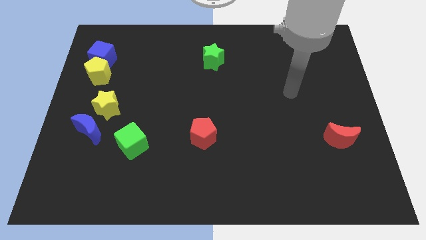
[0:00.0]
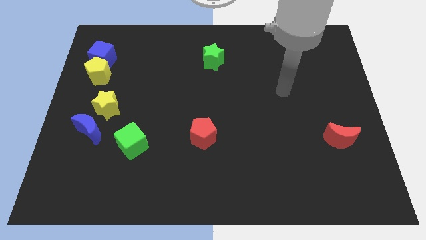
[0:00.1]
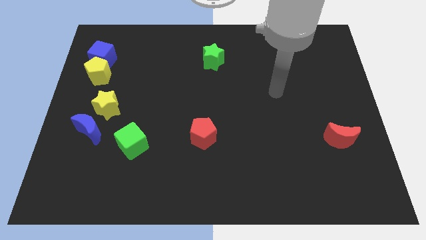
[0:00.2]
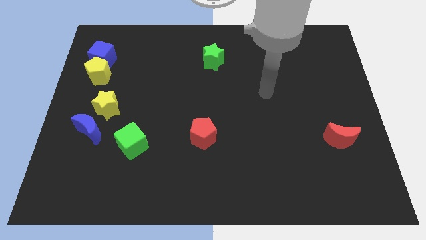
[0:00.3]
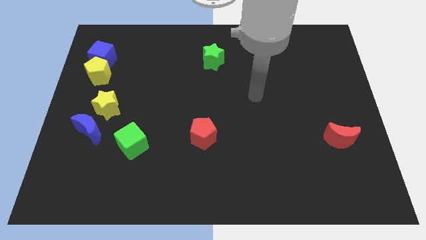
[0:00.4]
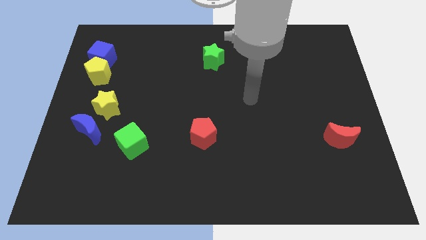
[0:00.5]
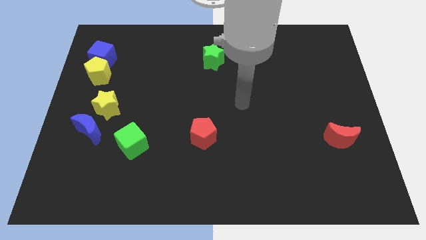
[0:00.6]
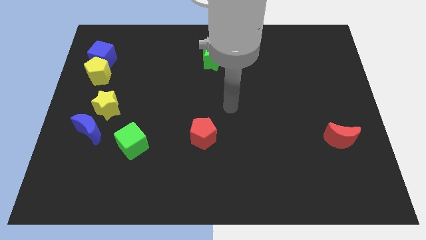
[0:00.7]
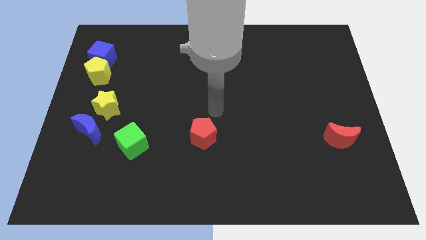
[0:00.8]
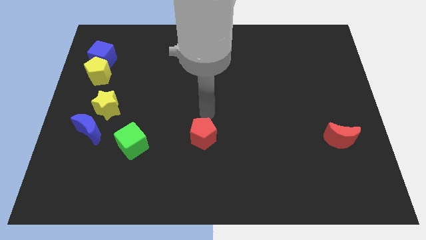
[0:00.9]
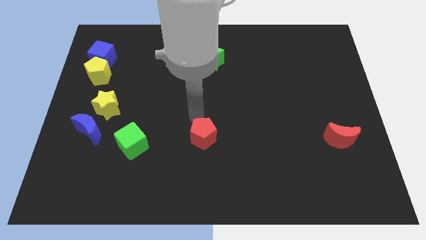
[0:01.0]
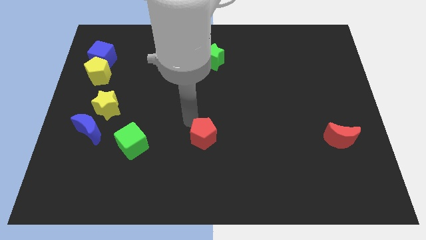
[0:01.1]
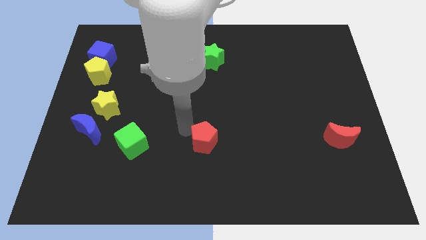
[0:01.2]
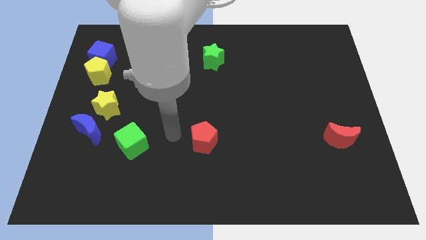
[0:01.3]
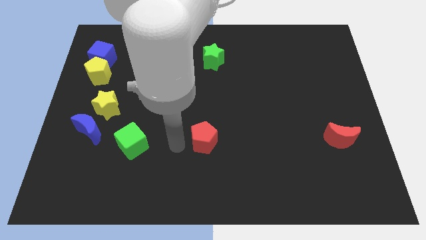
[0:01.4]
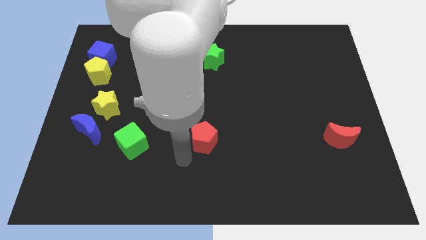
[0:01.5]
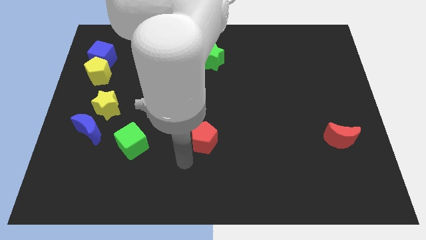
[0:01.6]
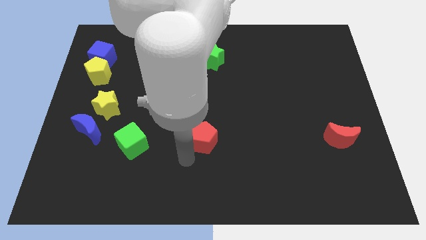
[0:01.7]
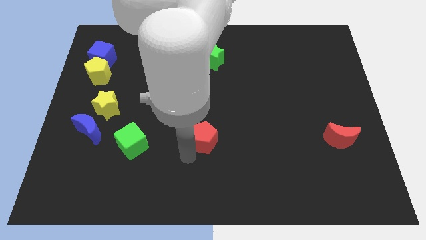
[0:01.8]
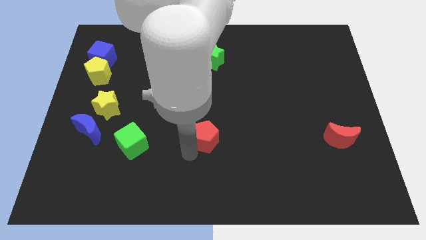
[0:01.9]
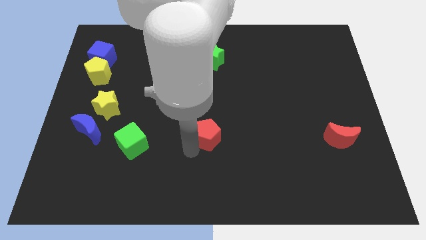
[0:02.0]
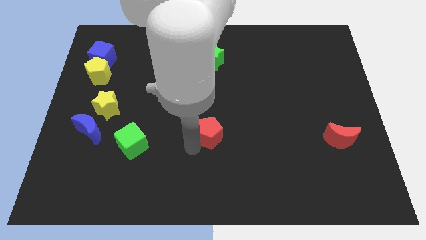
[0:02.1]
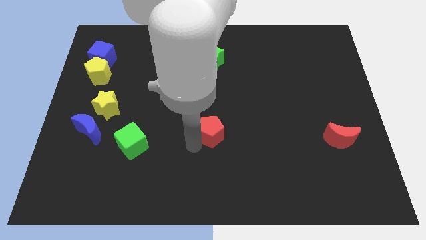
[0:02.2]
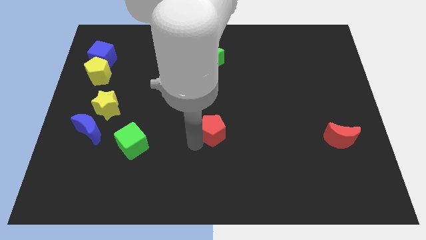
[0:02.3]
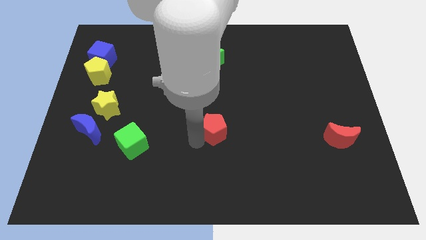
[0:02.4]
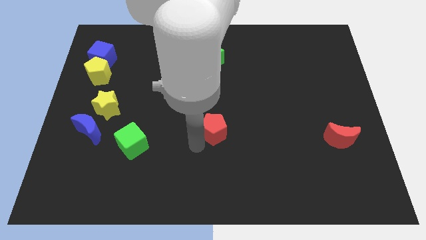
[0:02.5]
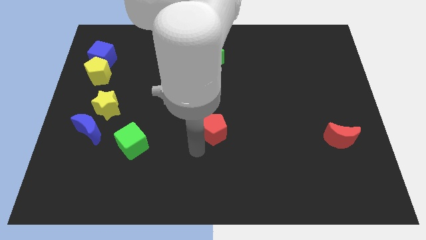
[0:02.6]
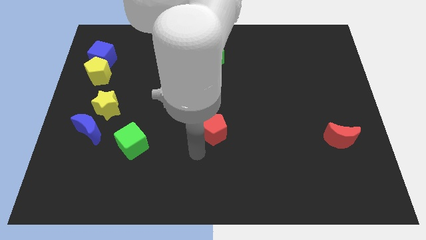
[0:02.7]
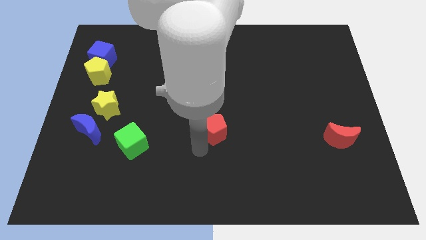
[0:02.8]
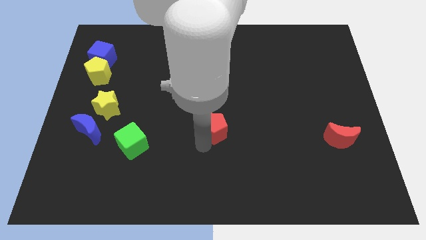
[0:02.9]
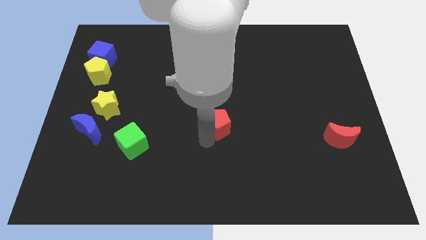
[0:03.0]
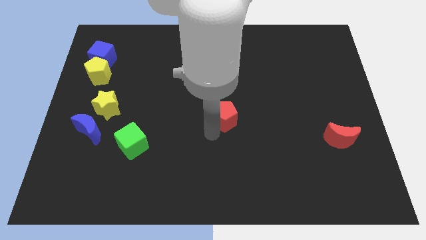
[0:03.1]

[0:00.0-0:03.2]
slightly push the red pentagon diagonally upwards and to the right

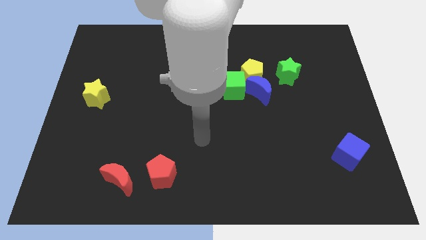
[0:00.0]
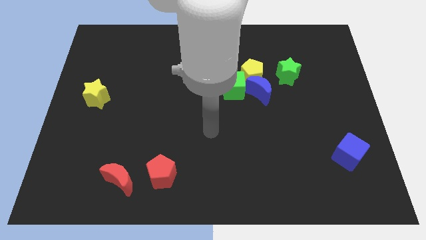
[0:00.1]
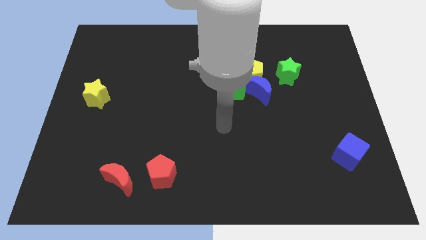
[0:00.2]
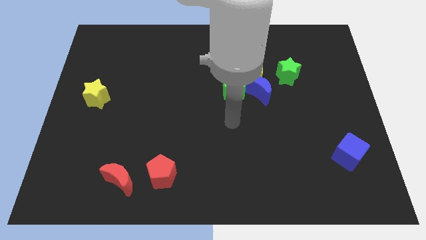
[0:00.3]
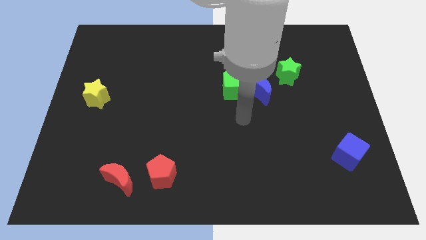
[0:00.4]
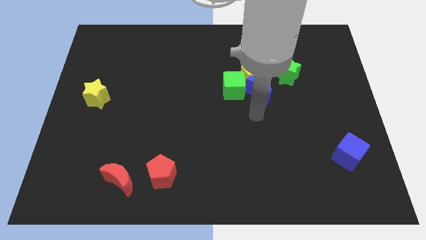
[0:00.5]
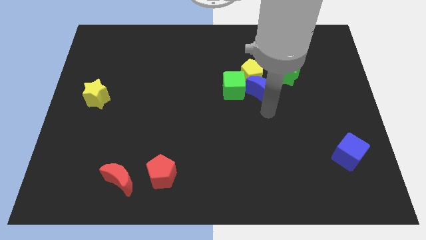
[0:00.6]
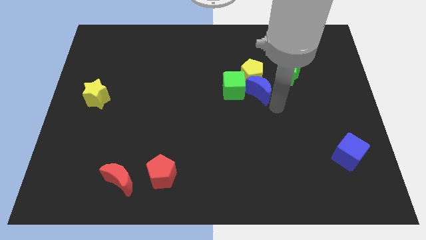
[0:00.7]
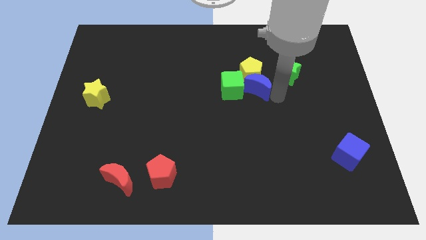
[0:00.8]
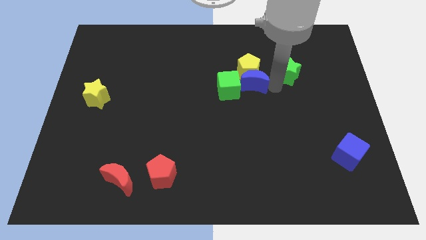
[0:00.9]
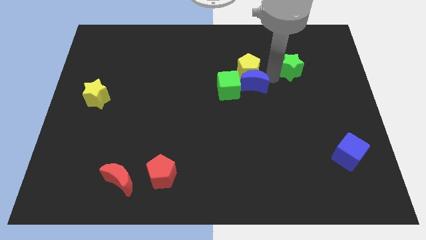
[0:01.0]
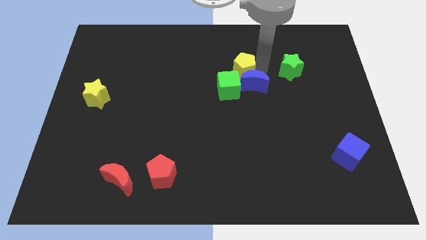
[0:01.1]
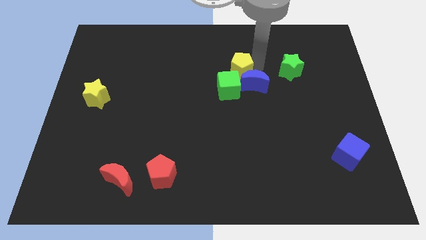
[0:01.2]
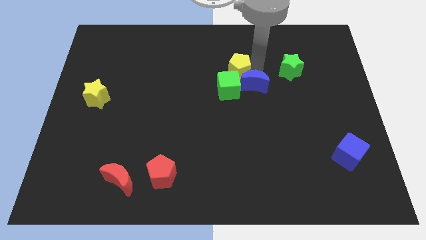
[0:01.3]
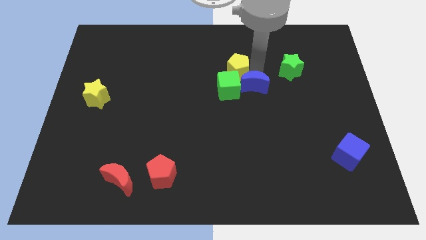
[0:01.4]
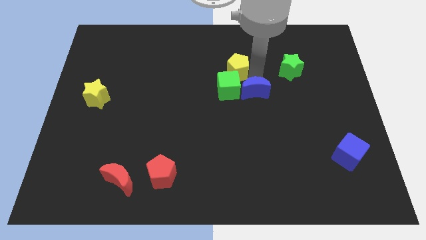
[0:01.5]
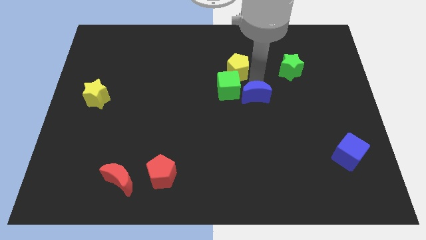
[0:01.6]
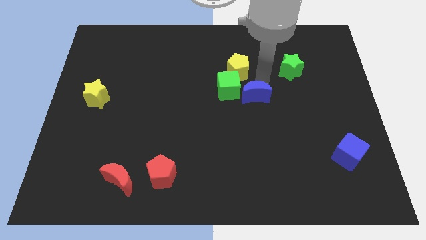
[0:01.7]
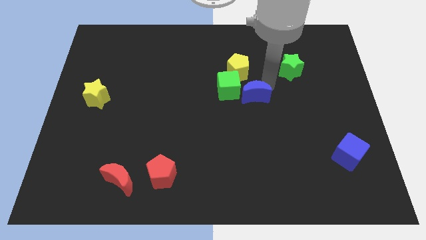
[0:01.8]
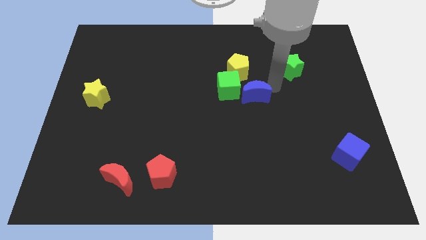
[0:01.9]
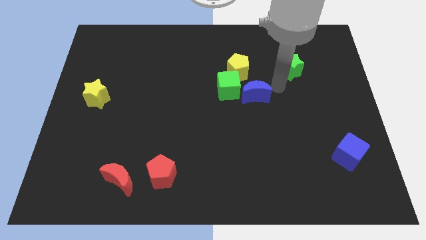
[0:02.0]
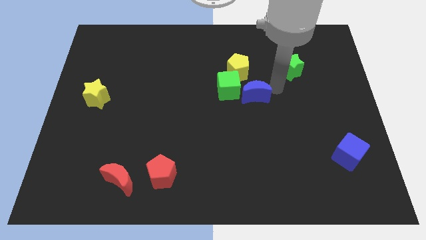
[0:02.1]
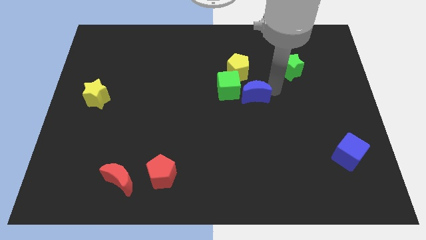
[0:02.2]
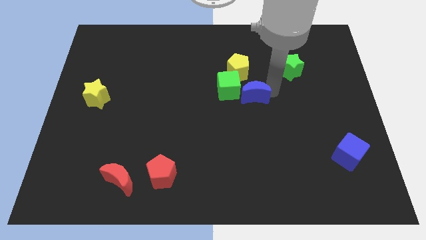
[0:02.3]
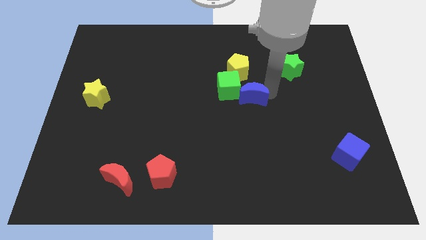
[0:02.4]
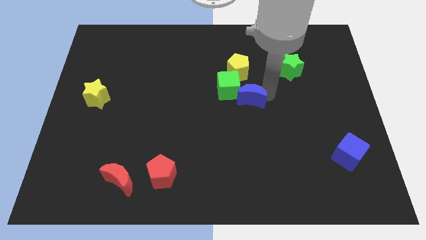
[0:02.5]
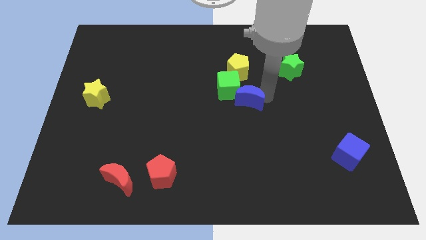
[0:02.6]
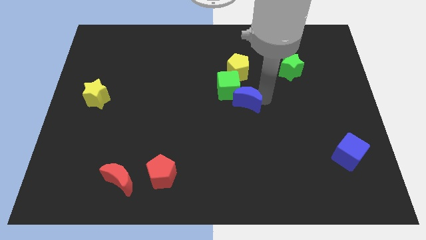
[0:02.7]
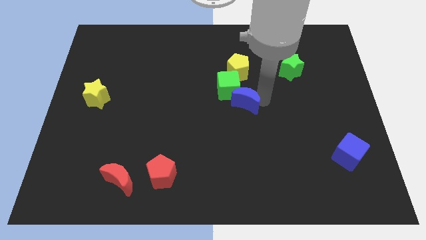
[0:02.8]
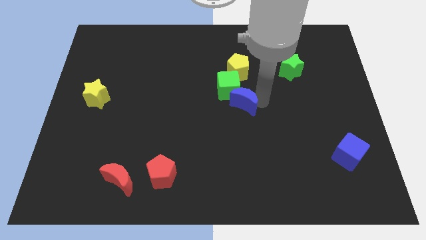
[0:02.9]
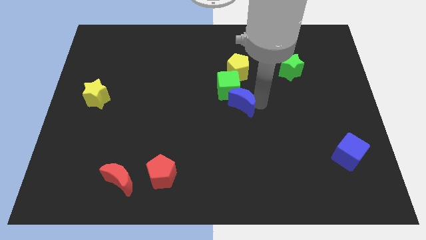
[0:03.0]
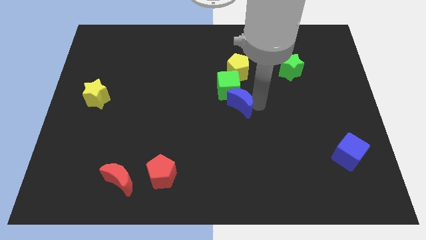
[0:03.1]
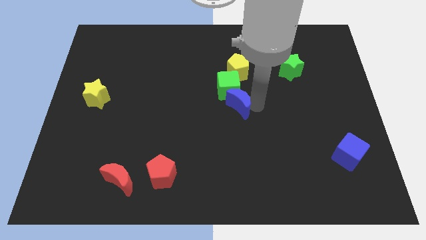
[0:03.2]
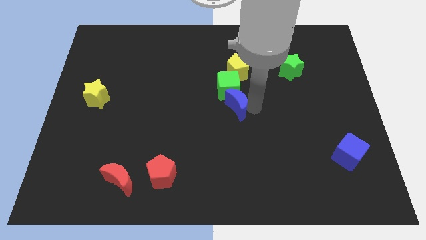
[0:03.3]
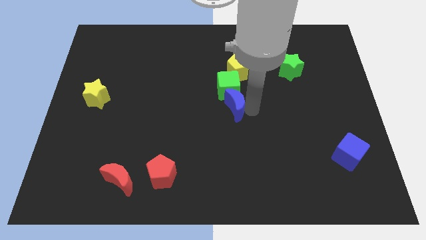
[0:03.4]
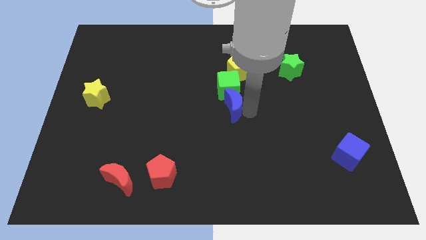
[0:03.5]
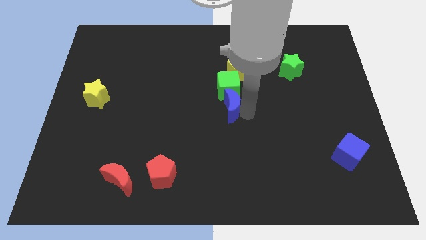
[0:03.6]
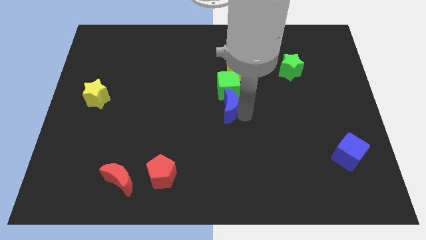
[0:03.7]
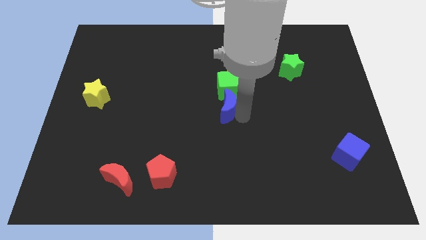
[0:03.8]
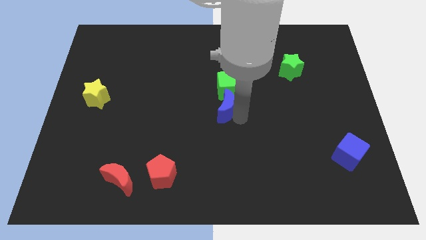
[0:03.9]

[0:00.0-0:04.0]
slightly push the blue moon to the left

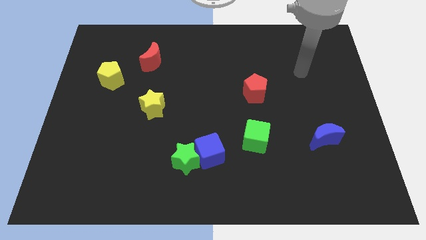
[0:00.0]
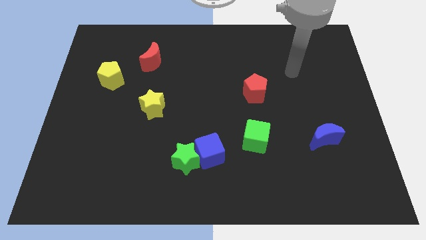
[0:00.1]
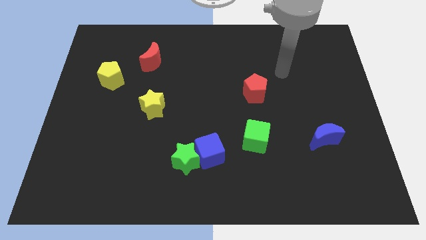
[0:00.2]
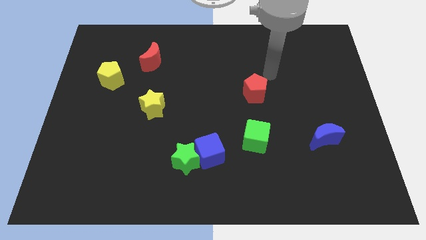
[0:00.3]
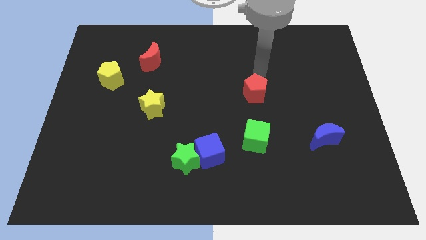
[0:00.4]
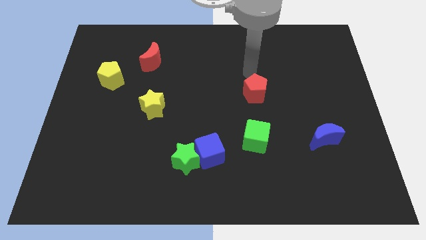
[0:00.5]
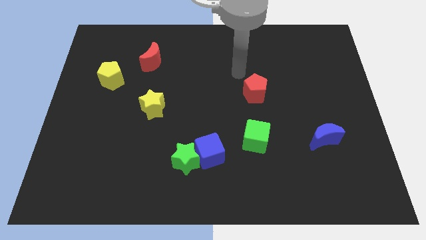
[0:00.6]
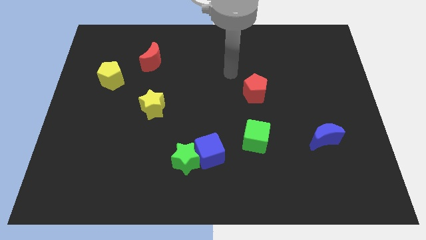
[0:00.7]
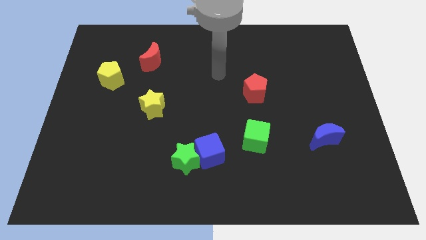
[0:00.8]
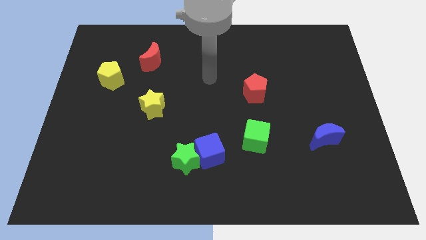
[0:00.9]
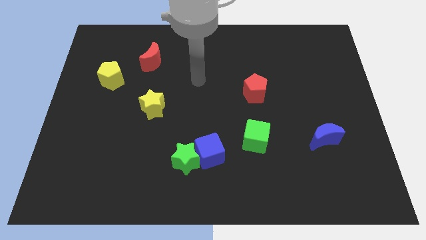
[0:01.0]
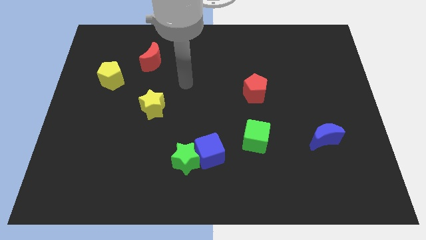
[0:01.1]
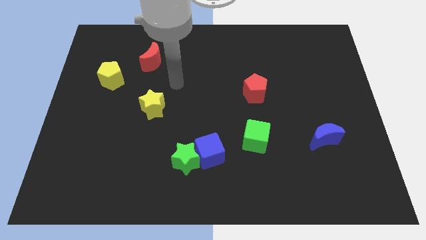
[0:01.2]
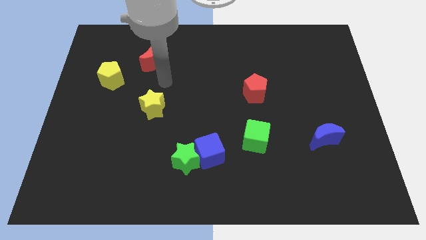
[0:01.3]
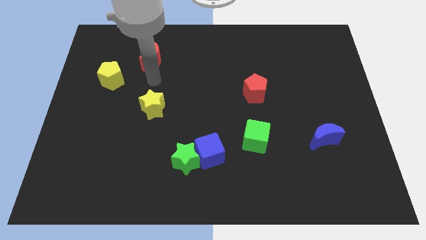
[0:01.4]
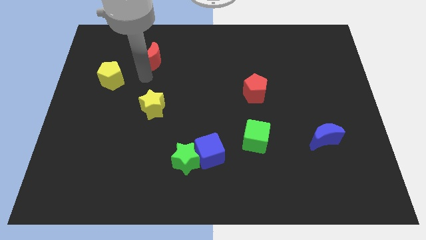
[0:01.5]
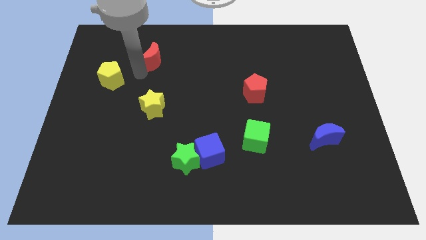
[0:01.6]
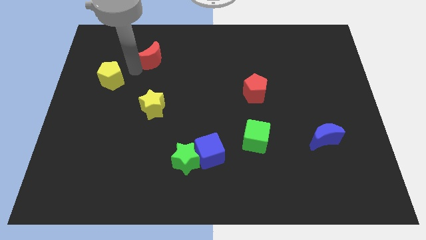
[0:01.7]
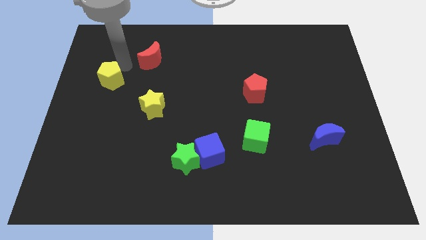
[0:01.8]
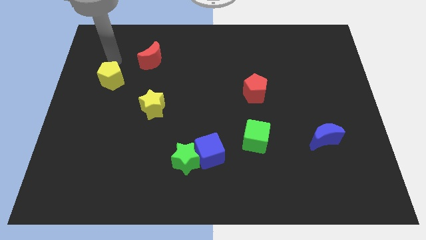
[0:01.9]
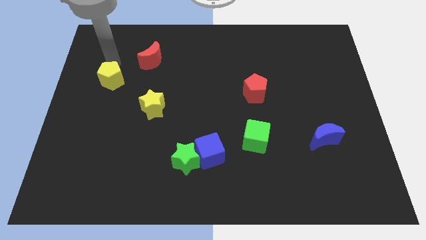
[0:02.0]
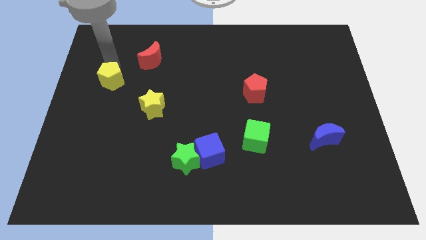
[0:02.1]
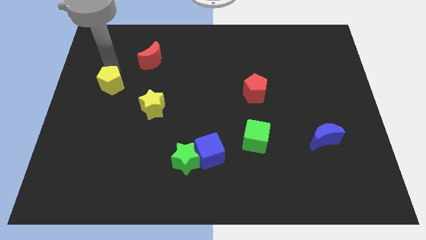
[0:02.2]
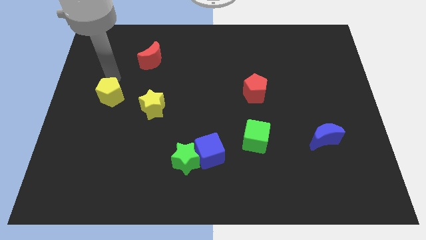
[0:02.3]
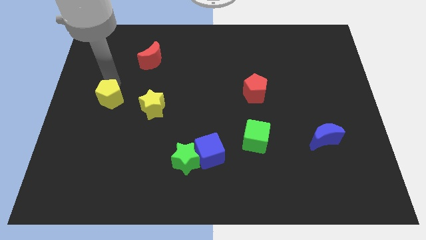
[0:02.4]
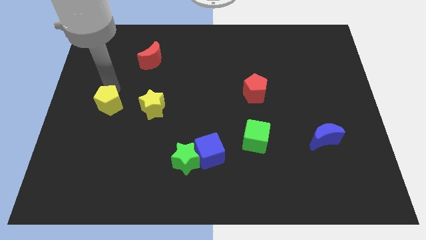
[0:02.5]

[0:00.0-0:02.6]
push the yellow pentagon downwards a little bit
